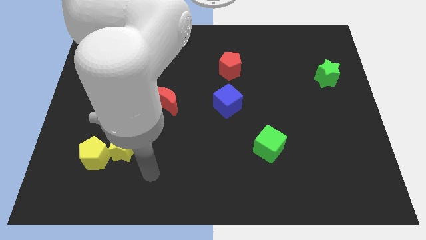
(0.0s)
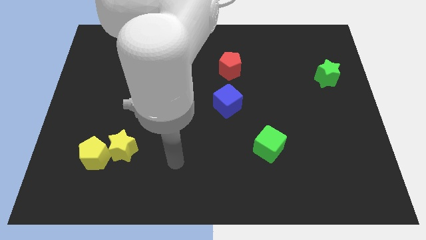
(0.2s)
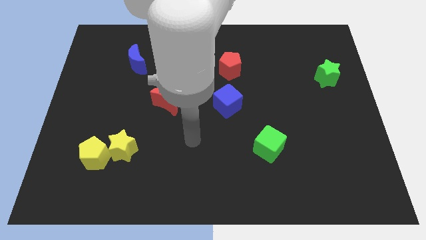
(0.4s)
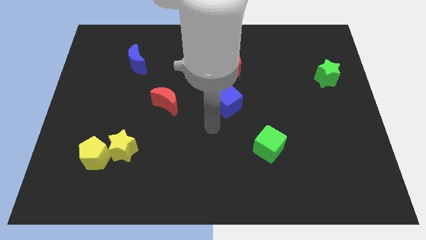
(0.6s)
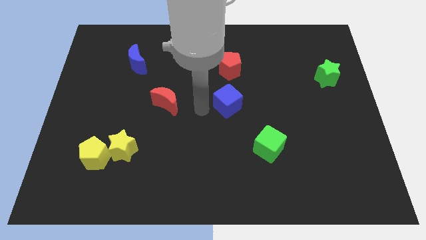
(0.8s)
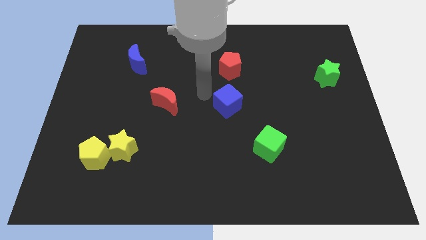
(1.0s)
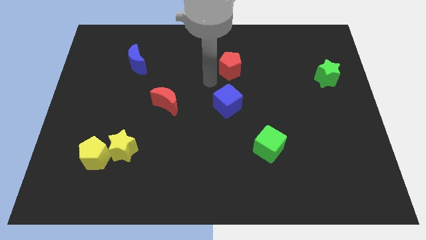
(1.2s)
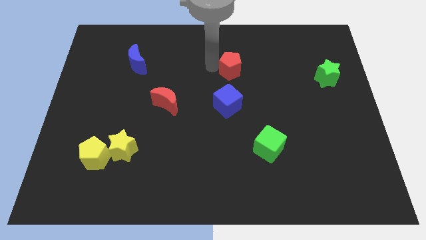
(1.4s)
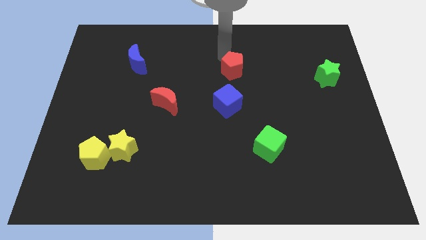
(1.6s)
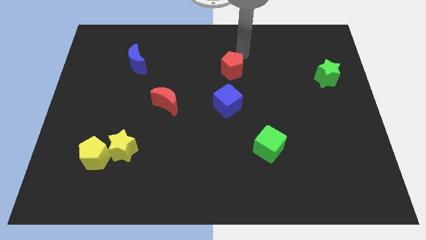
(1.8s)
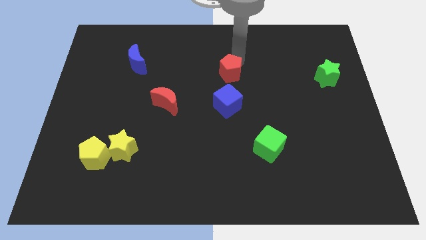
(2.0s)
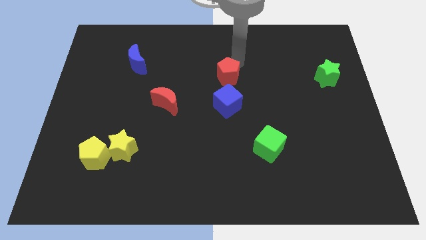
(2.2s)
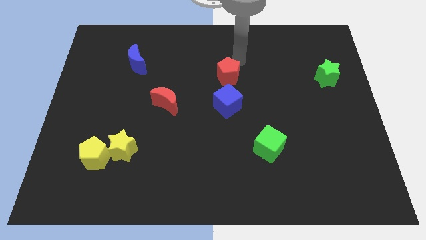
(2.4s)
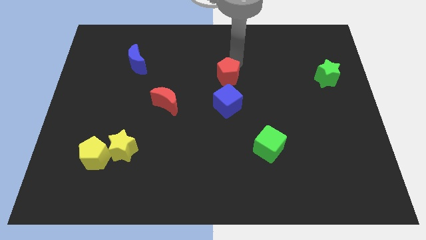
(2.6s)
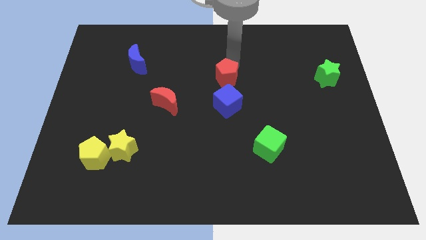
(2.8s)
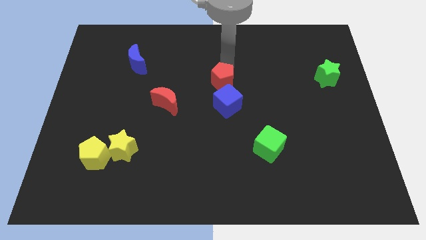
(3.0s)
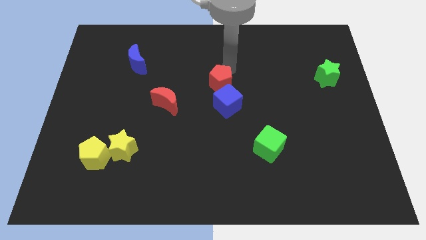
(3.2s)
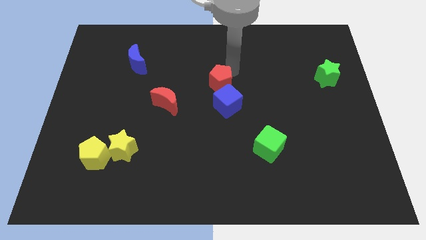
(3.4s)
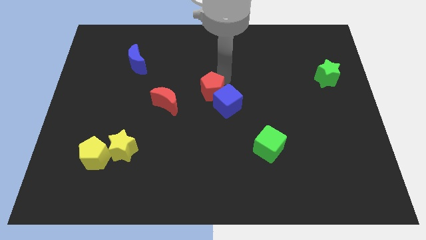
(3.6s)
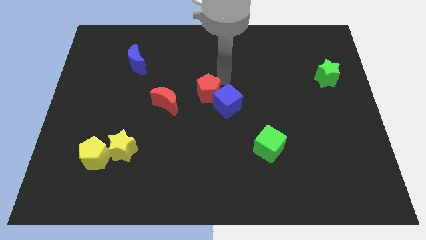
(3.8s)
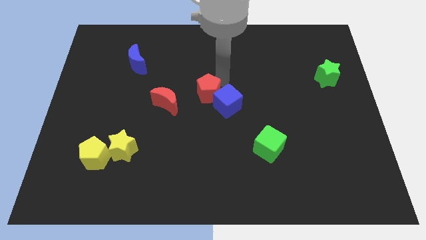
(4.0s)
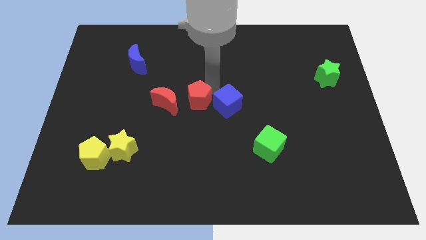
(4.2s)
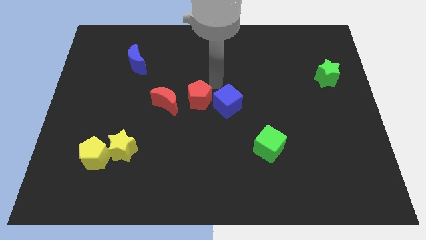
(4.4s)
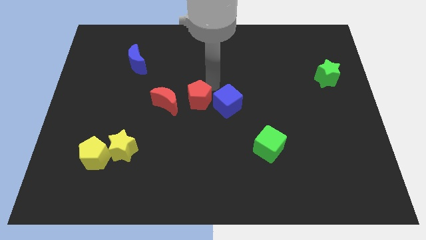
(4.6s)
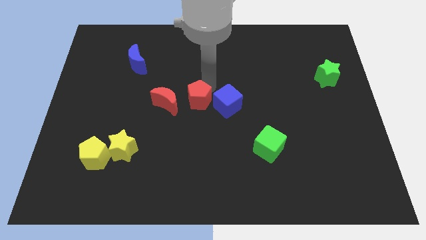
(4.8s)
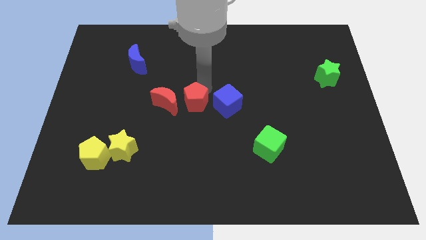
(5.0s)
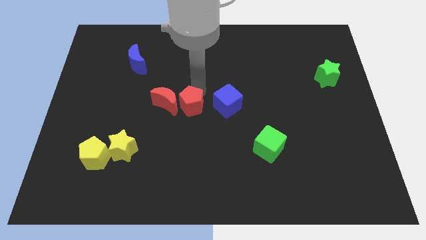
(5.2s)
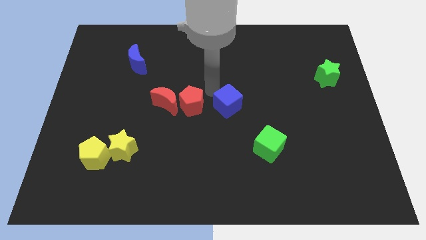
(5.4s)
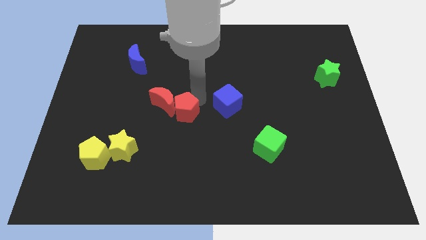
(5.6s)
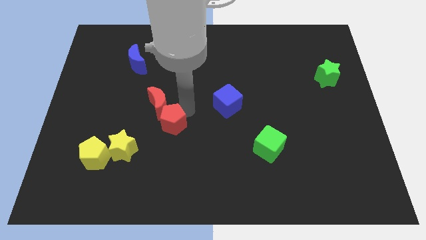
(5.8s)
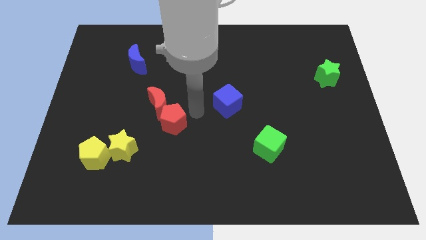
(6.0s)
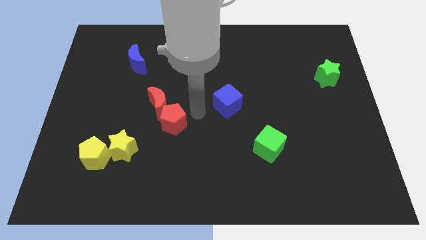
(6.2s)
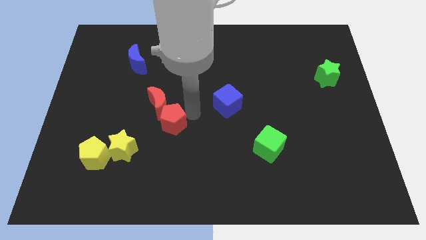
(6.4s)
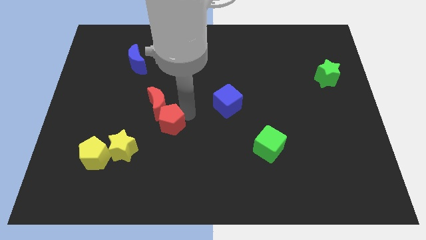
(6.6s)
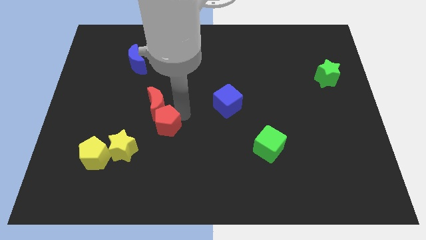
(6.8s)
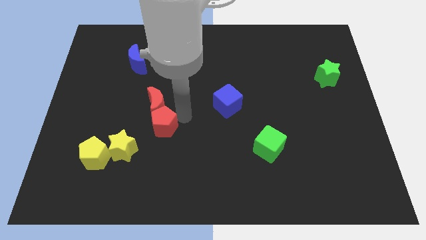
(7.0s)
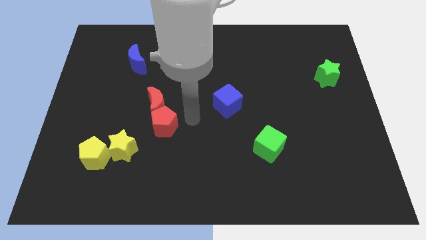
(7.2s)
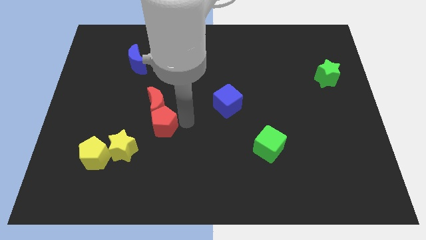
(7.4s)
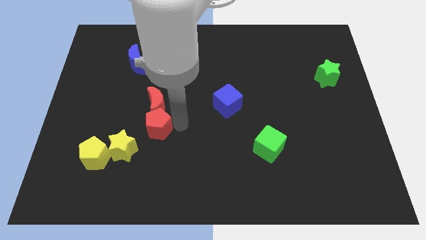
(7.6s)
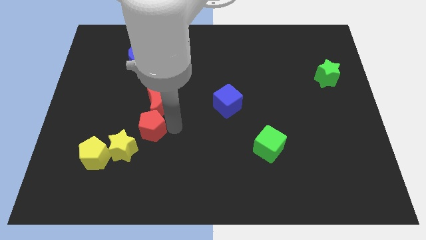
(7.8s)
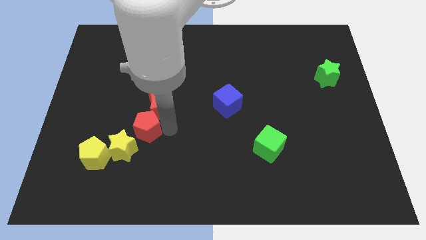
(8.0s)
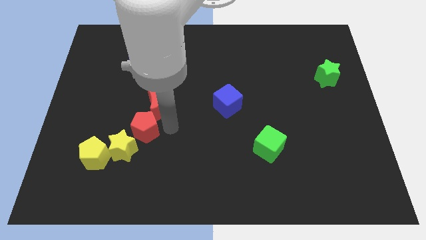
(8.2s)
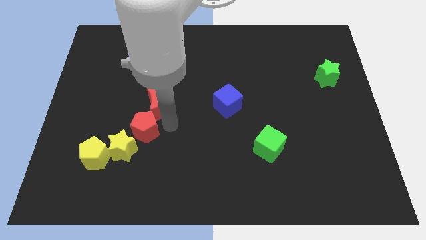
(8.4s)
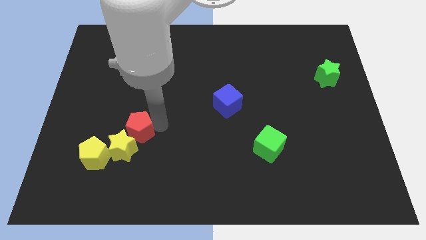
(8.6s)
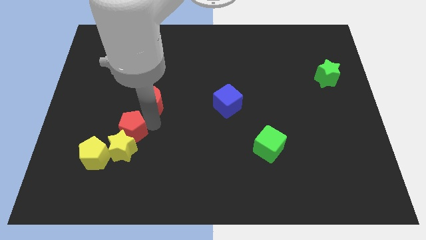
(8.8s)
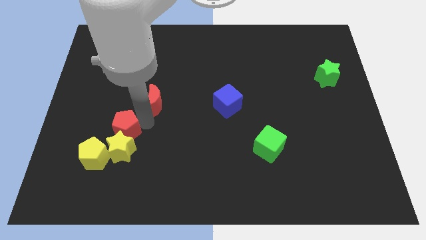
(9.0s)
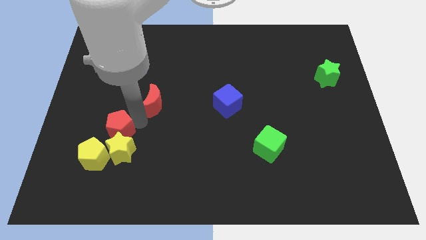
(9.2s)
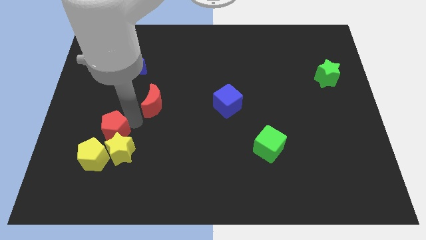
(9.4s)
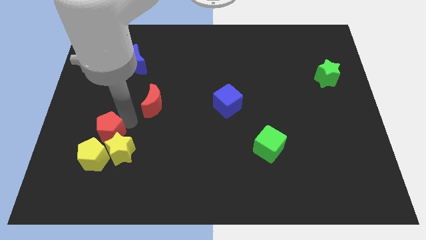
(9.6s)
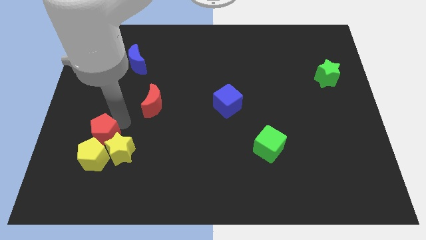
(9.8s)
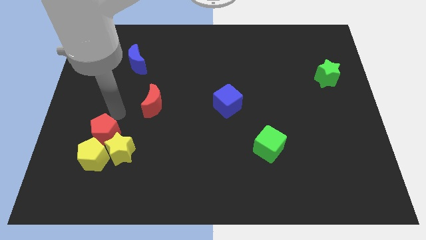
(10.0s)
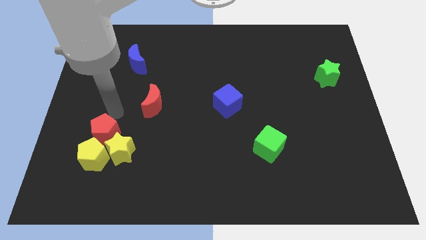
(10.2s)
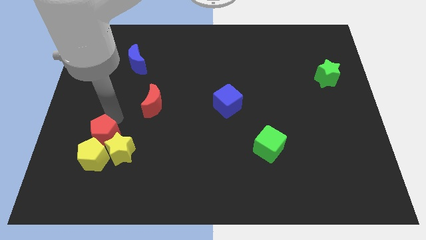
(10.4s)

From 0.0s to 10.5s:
slide the red pentagon close to the yellow pentagon

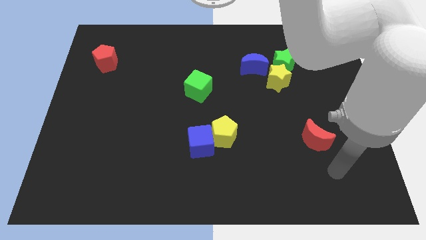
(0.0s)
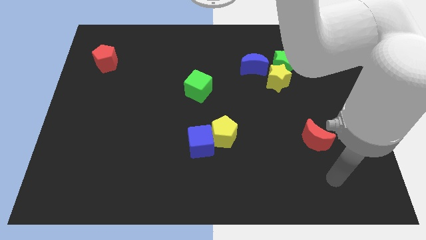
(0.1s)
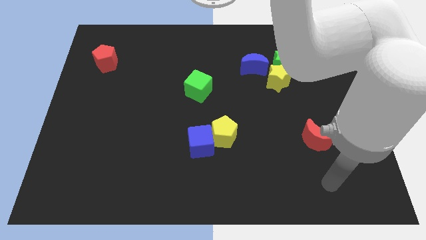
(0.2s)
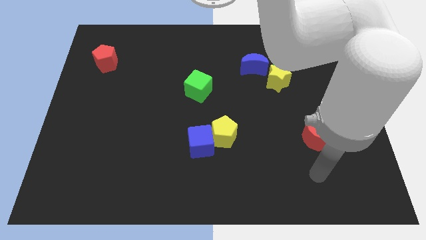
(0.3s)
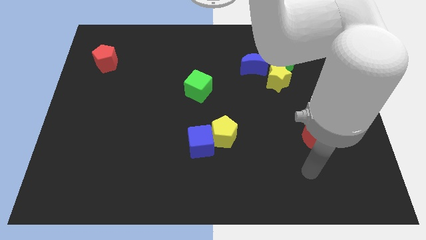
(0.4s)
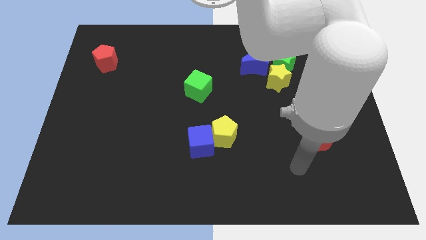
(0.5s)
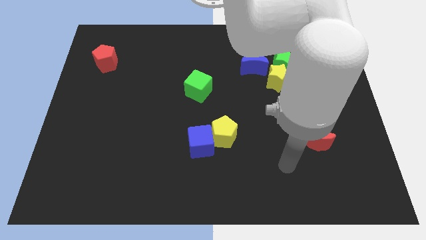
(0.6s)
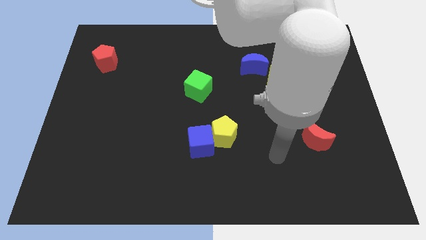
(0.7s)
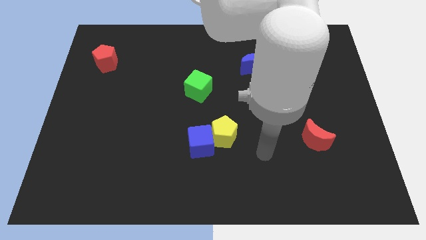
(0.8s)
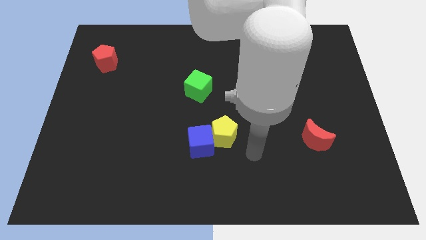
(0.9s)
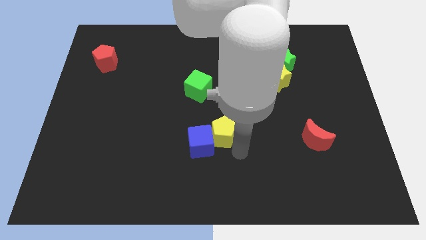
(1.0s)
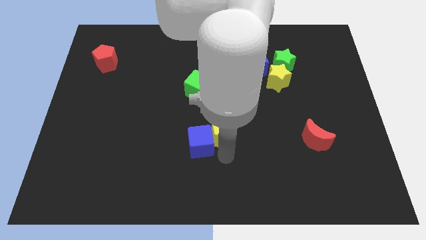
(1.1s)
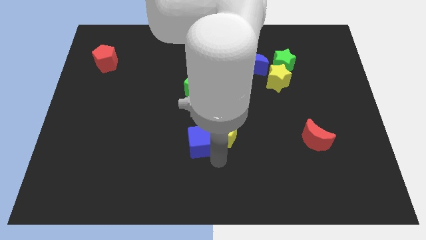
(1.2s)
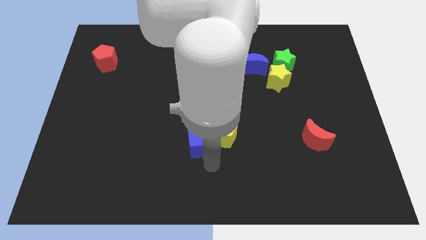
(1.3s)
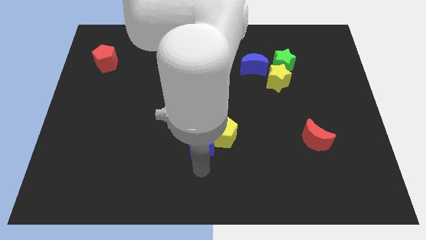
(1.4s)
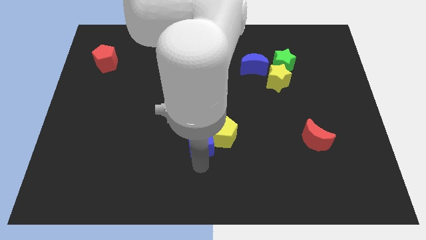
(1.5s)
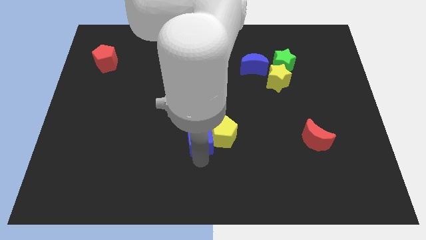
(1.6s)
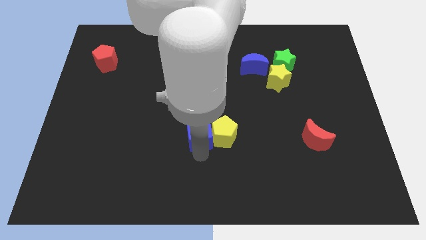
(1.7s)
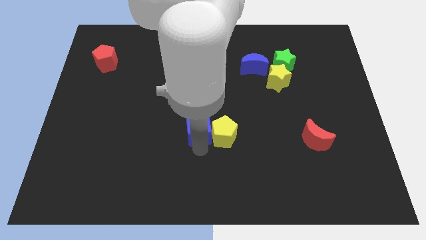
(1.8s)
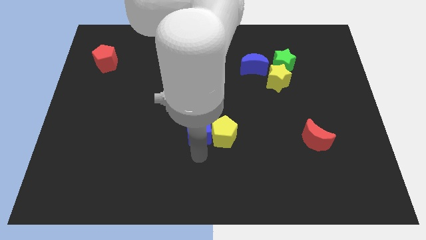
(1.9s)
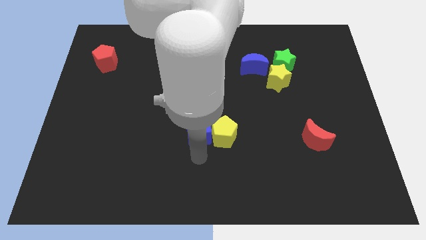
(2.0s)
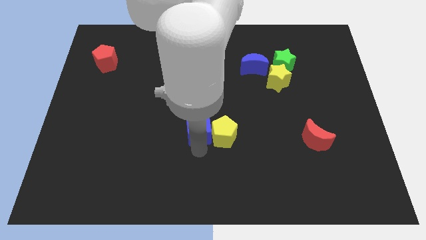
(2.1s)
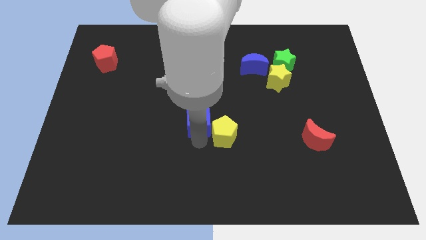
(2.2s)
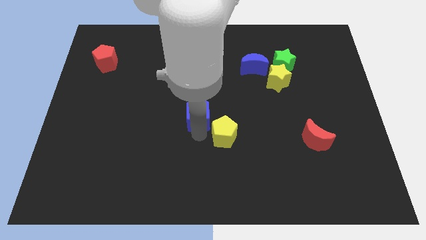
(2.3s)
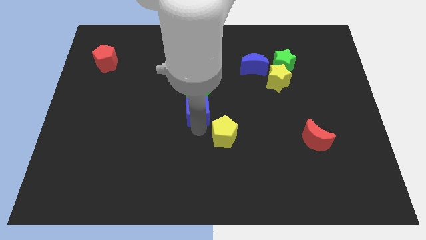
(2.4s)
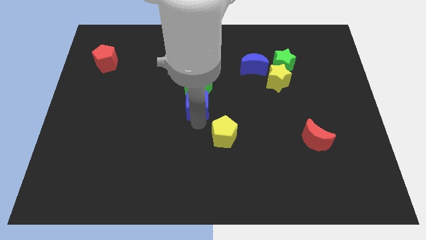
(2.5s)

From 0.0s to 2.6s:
move the blue cube next to the green cube
